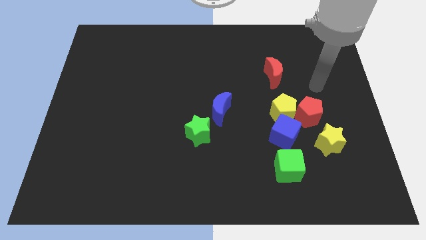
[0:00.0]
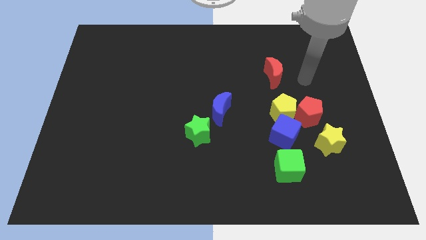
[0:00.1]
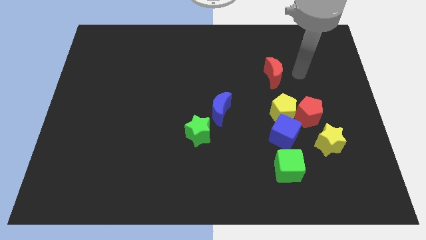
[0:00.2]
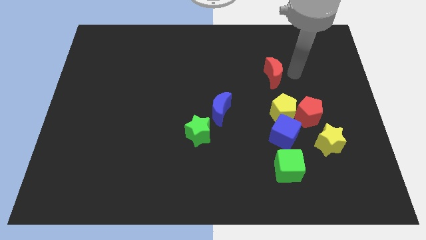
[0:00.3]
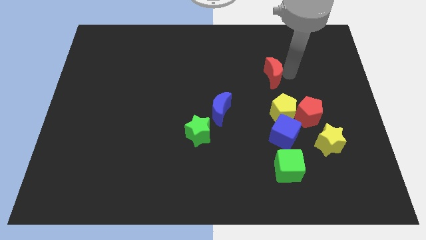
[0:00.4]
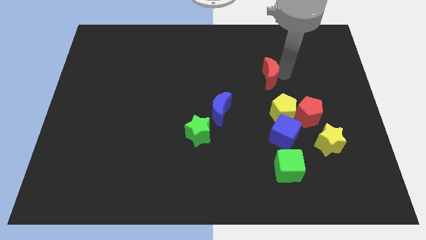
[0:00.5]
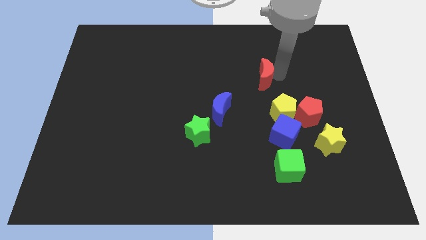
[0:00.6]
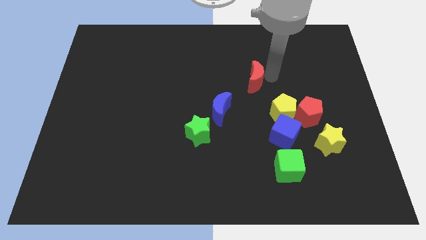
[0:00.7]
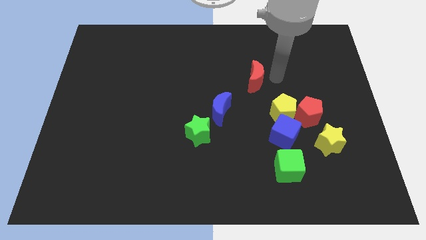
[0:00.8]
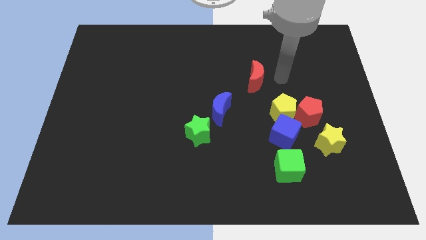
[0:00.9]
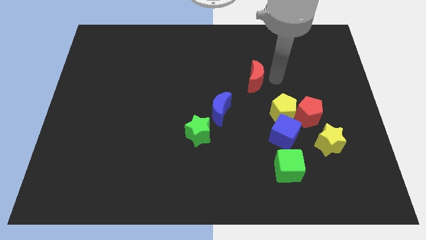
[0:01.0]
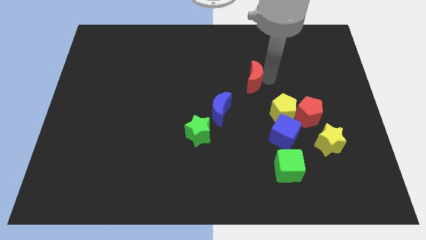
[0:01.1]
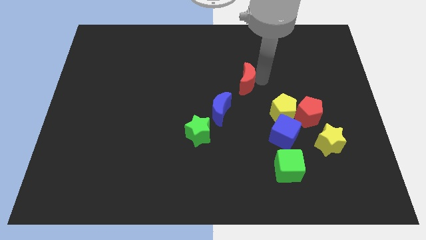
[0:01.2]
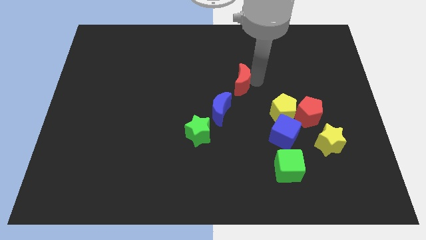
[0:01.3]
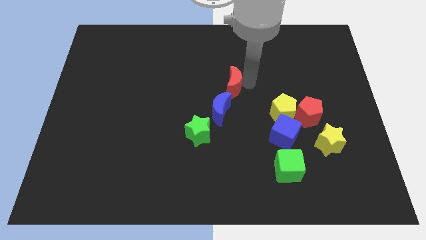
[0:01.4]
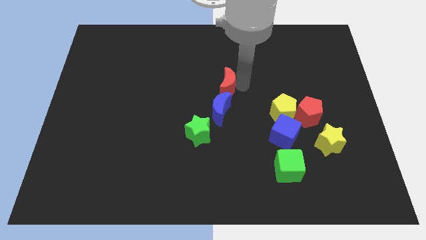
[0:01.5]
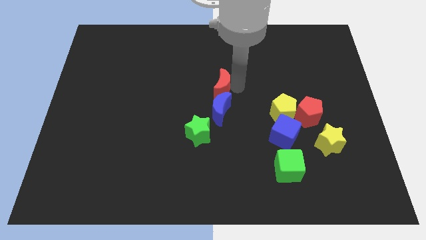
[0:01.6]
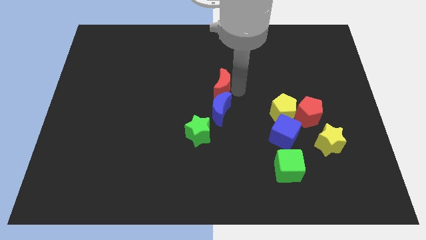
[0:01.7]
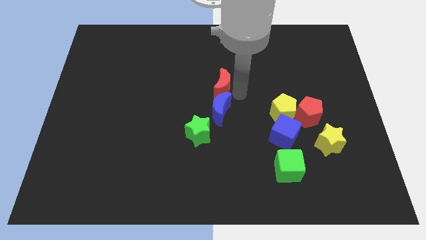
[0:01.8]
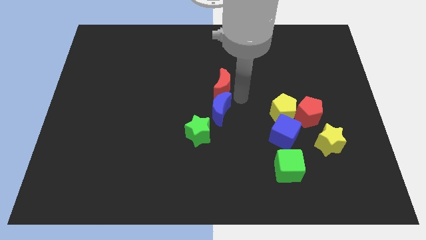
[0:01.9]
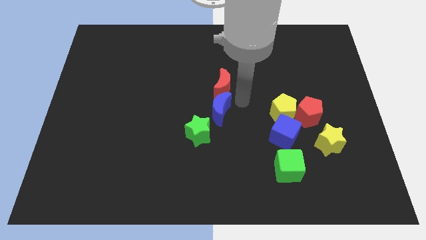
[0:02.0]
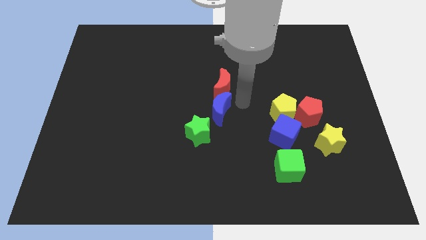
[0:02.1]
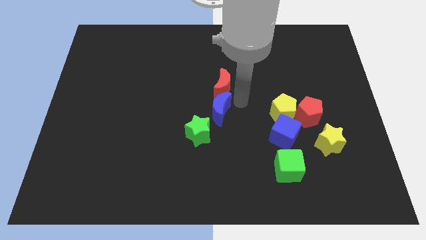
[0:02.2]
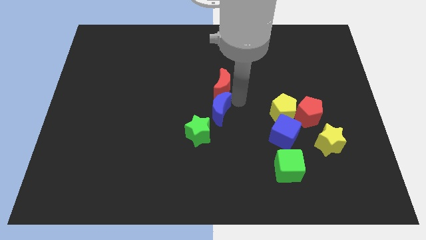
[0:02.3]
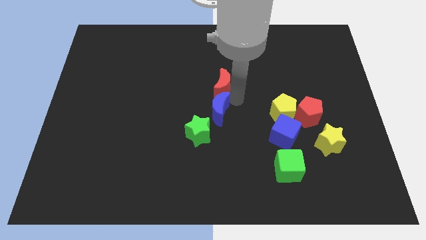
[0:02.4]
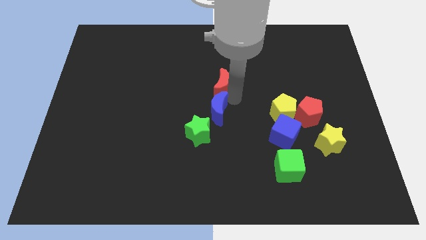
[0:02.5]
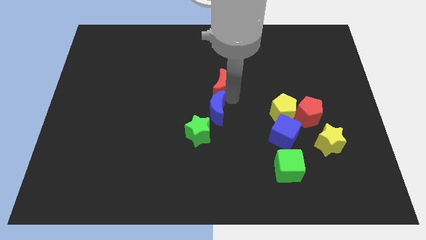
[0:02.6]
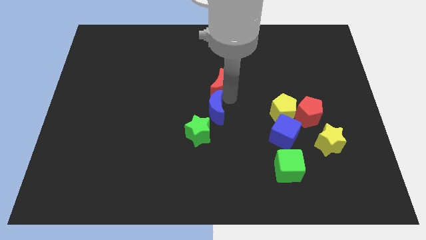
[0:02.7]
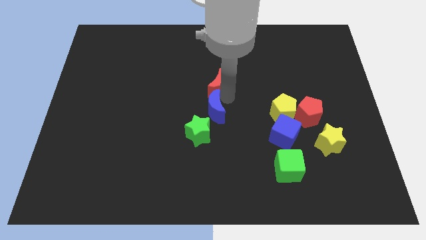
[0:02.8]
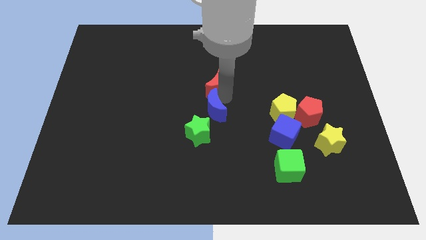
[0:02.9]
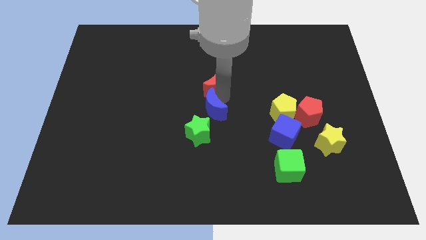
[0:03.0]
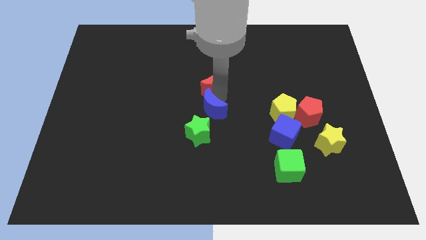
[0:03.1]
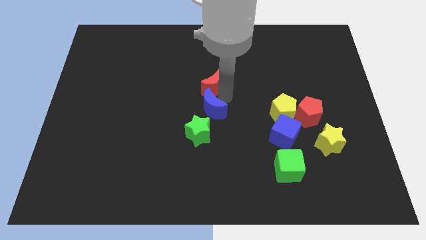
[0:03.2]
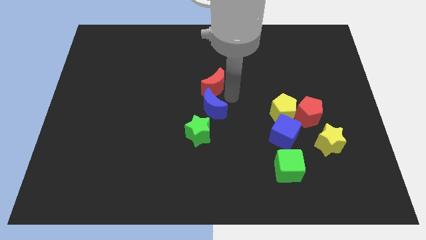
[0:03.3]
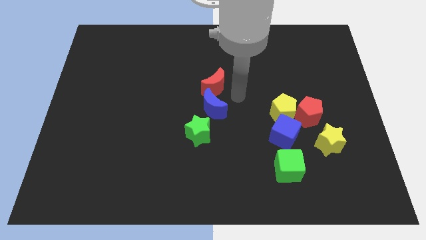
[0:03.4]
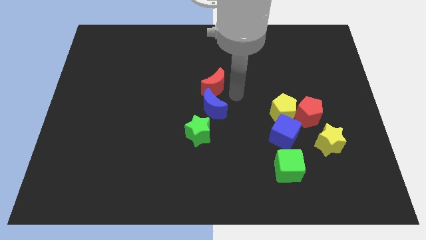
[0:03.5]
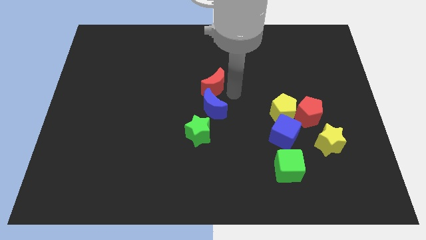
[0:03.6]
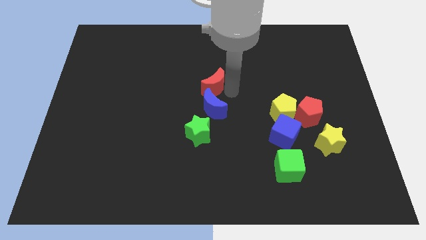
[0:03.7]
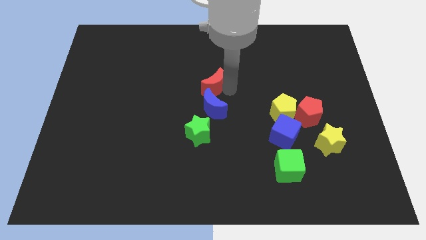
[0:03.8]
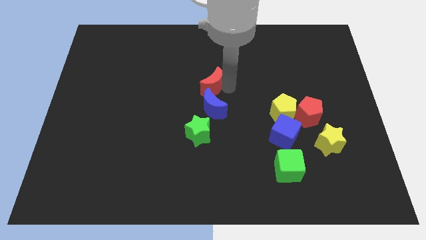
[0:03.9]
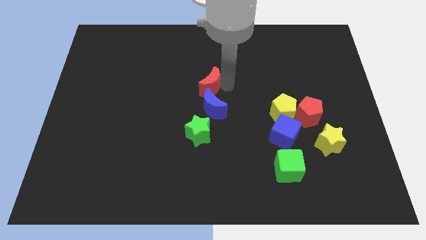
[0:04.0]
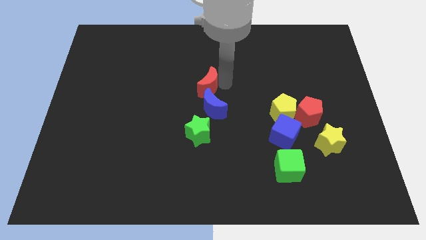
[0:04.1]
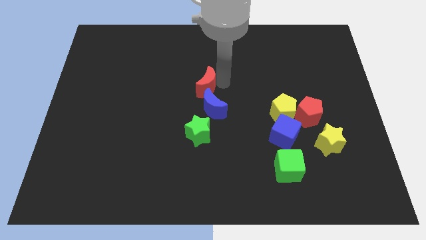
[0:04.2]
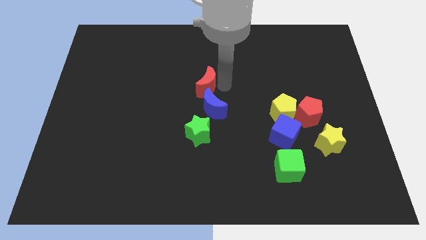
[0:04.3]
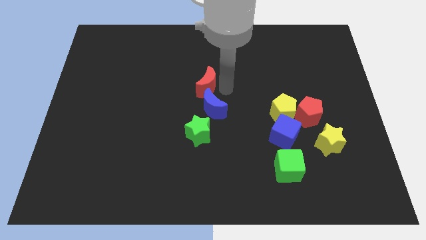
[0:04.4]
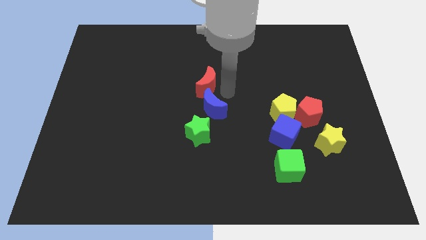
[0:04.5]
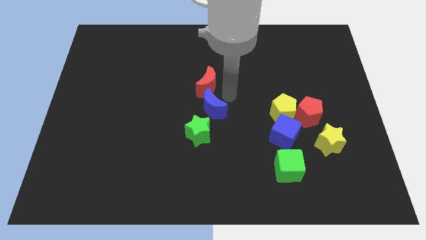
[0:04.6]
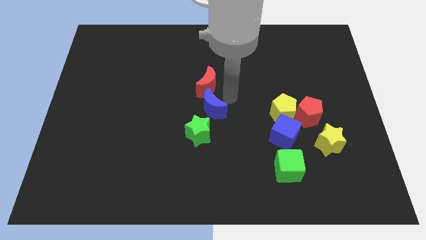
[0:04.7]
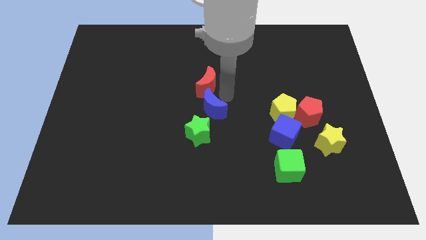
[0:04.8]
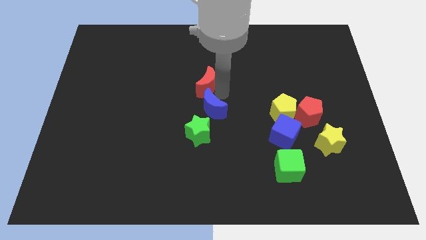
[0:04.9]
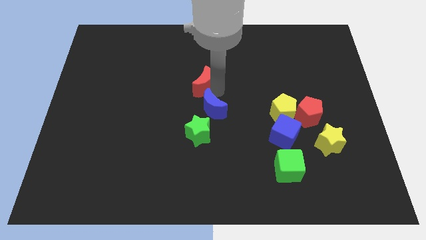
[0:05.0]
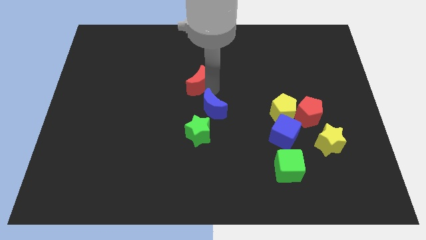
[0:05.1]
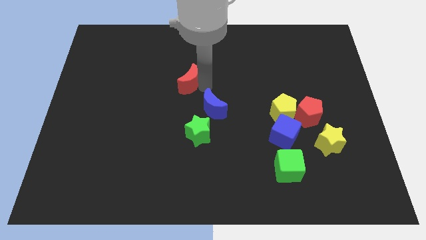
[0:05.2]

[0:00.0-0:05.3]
move the red moon left

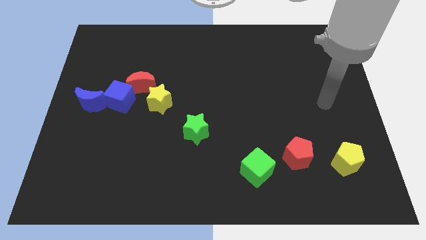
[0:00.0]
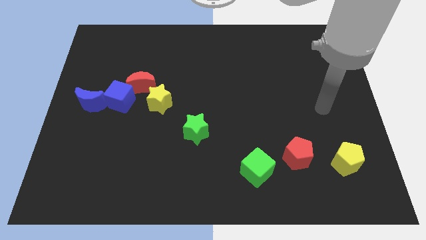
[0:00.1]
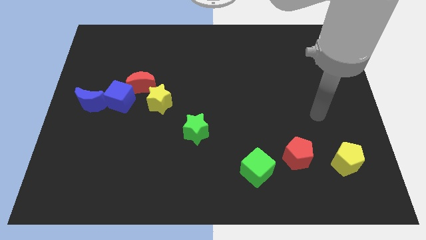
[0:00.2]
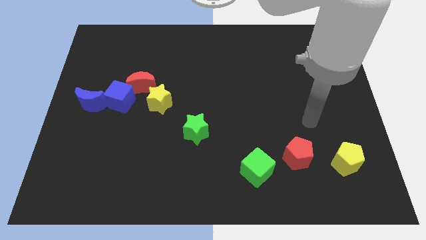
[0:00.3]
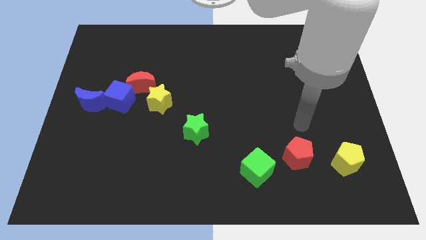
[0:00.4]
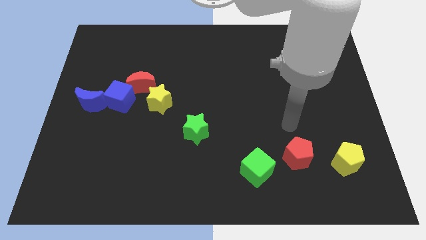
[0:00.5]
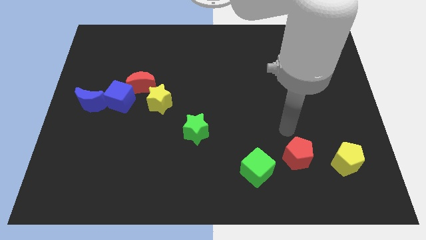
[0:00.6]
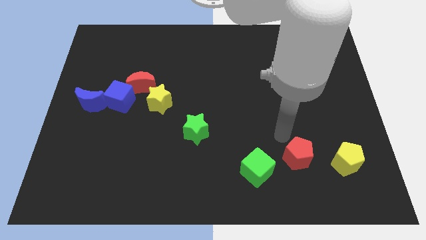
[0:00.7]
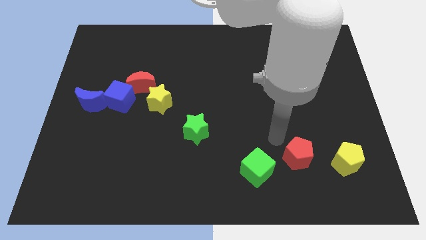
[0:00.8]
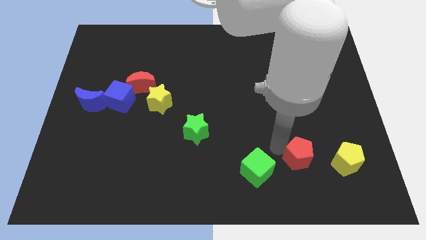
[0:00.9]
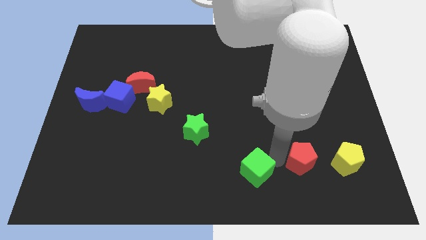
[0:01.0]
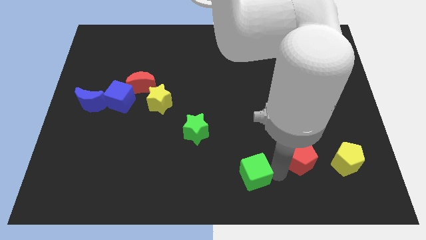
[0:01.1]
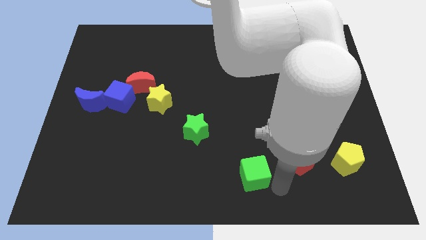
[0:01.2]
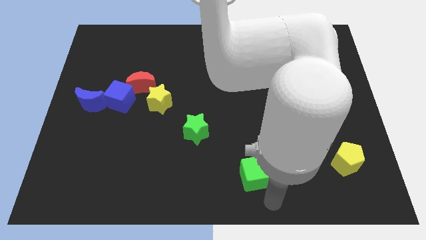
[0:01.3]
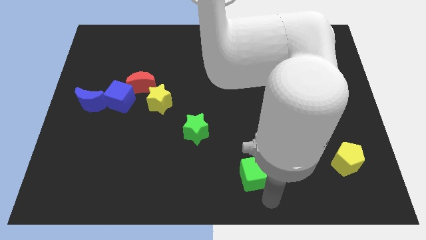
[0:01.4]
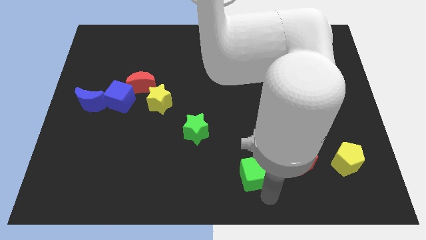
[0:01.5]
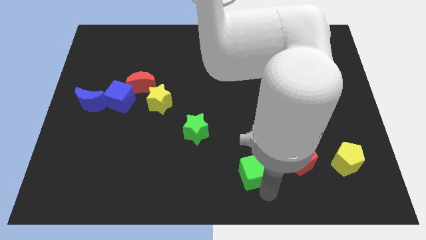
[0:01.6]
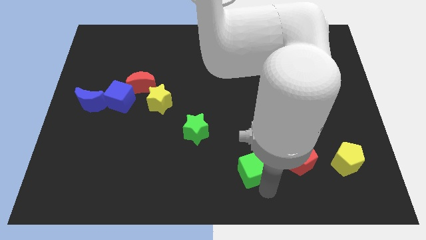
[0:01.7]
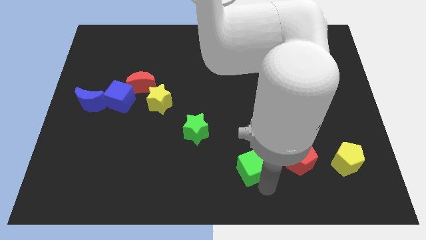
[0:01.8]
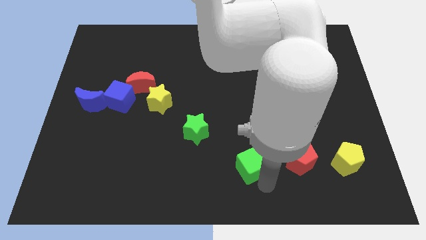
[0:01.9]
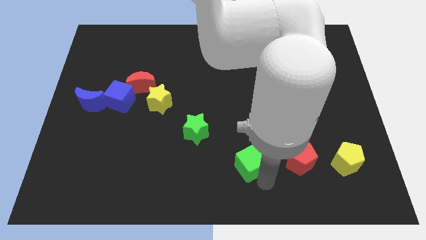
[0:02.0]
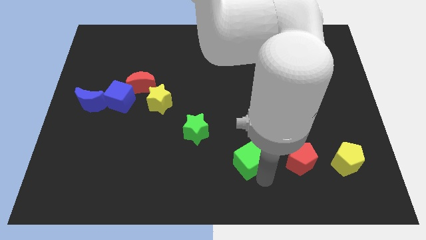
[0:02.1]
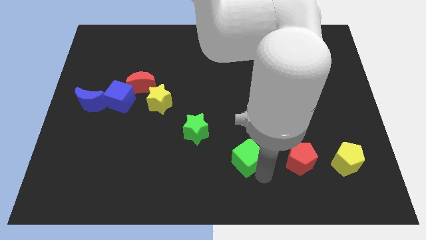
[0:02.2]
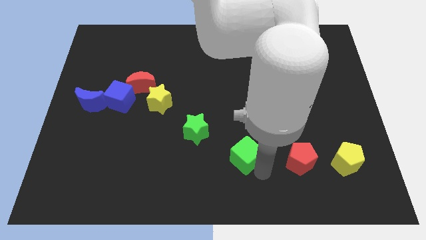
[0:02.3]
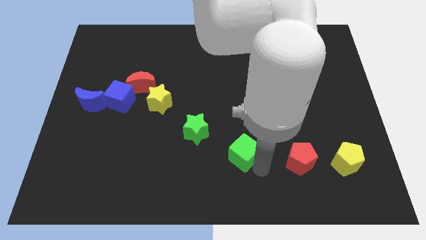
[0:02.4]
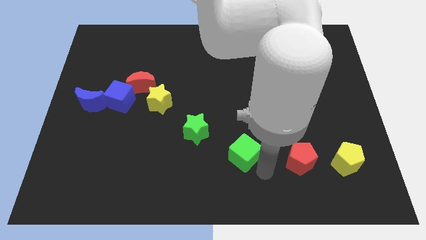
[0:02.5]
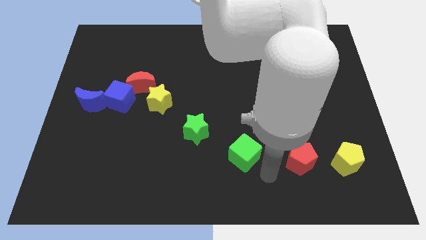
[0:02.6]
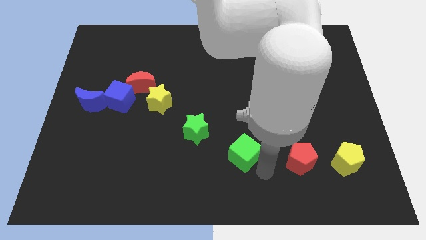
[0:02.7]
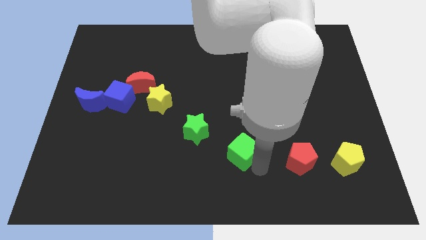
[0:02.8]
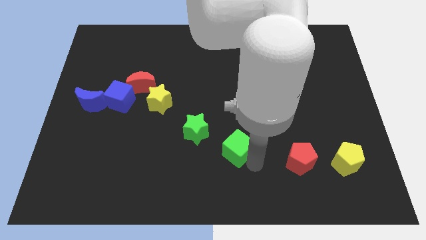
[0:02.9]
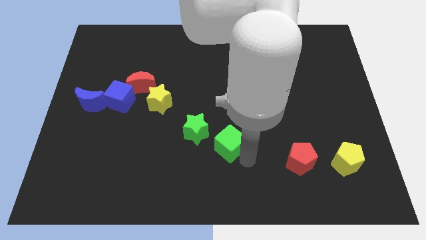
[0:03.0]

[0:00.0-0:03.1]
move the green cube a little bit diagonally up and left
